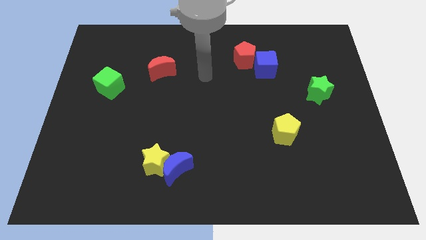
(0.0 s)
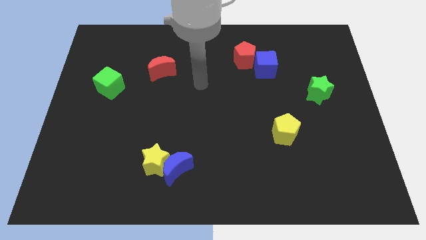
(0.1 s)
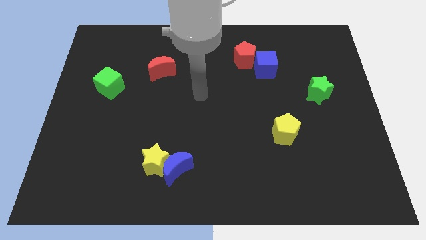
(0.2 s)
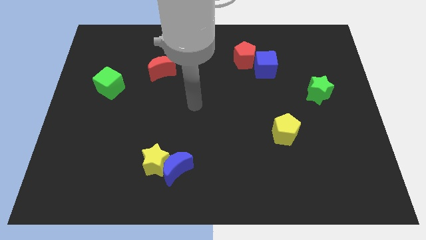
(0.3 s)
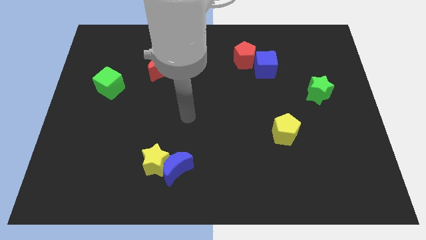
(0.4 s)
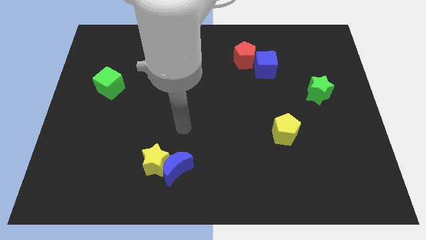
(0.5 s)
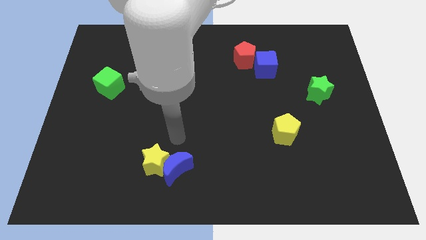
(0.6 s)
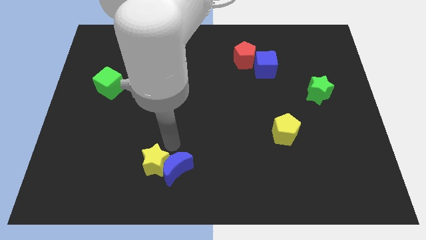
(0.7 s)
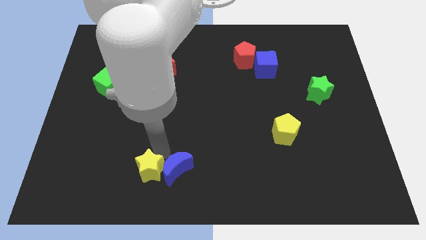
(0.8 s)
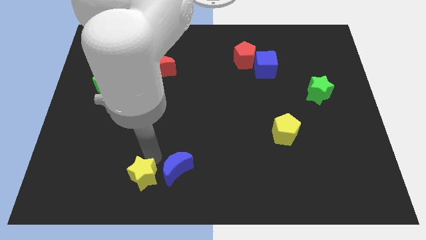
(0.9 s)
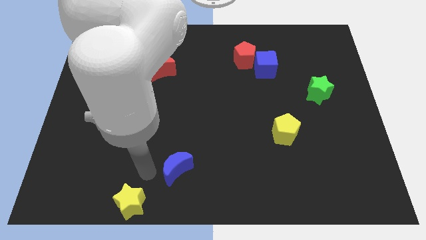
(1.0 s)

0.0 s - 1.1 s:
move the blue moon away from the yellow star

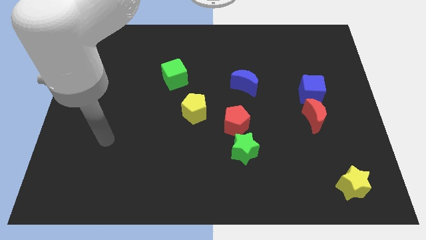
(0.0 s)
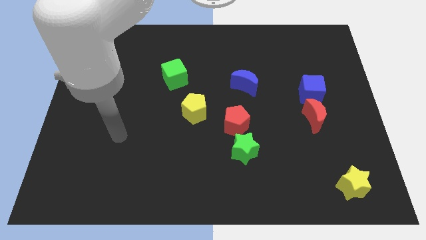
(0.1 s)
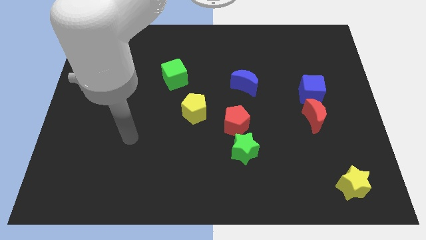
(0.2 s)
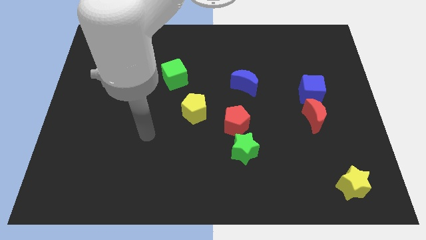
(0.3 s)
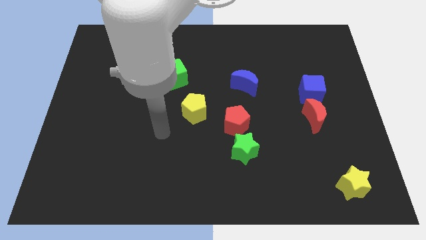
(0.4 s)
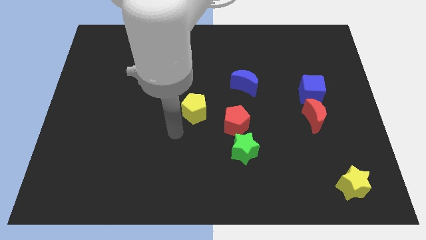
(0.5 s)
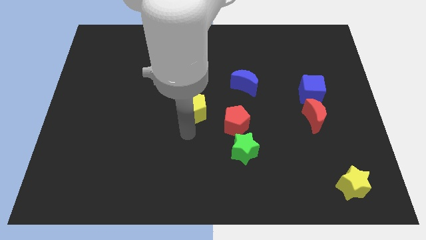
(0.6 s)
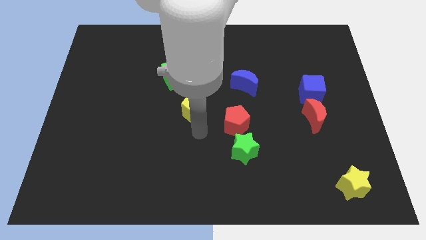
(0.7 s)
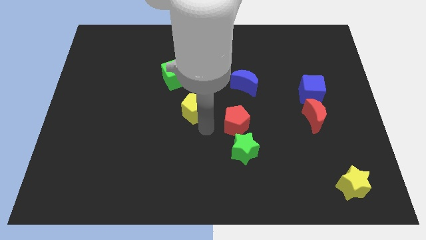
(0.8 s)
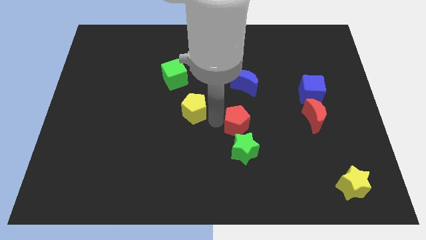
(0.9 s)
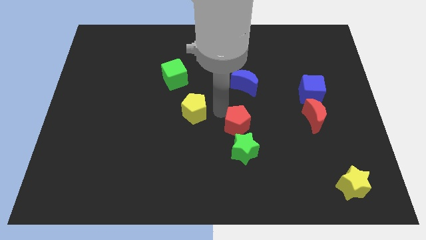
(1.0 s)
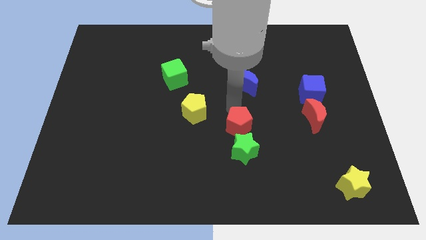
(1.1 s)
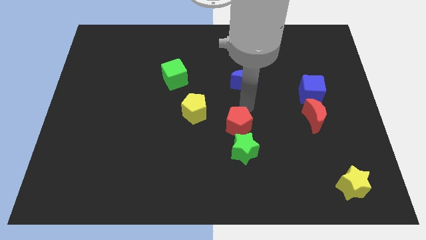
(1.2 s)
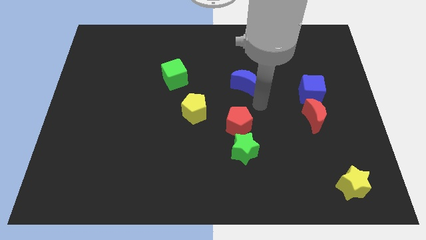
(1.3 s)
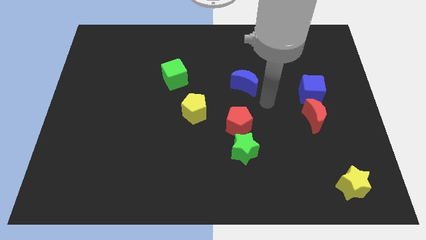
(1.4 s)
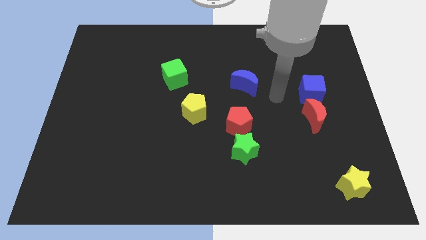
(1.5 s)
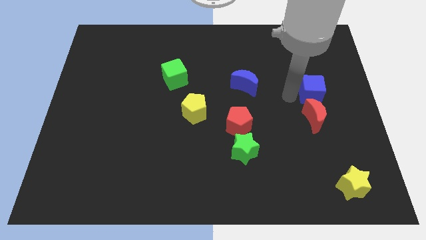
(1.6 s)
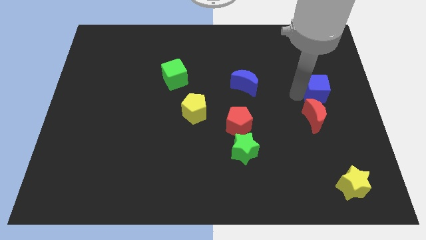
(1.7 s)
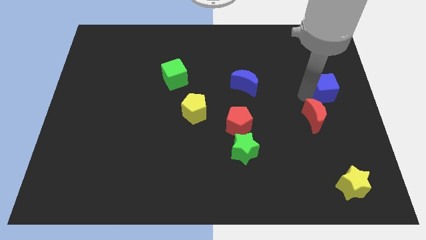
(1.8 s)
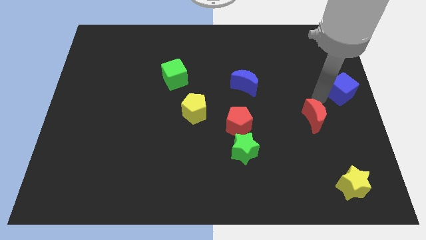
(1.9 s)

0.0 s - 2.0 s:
separate the red moon from the blue cube

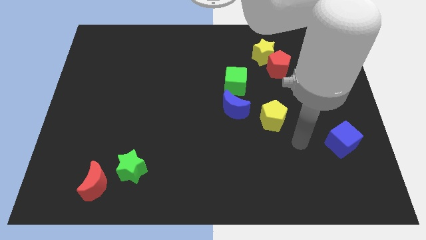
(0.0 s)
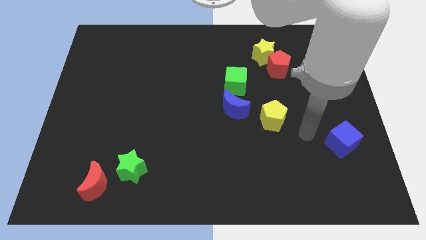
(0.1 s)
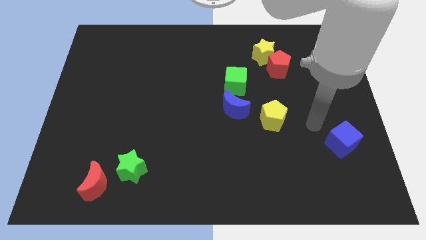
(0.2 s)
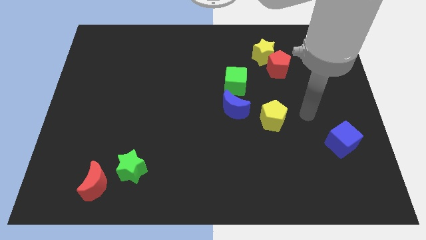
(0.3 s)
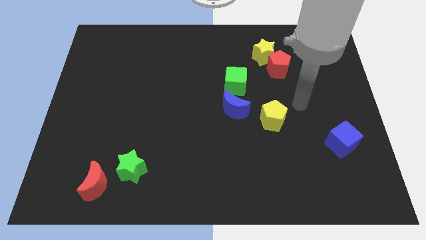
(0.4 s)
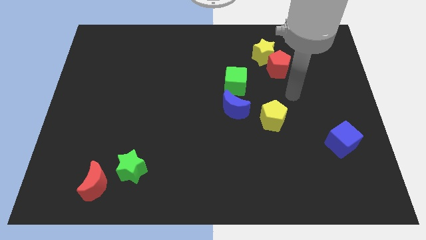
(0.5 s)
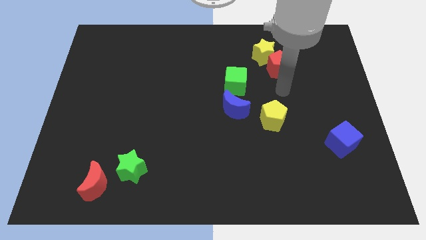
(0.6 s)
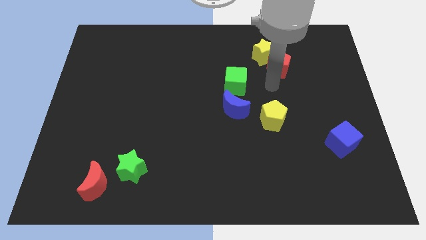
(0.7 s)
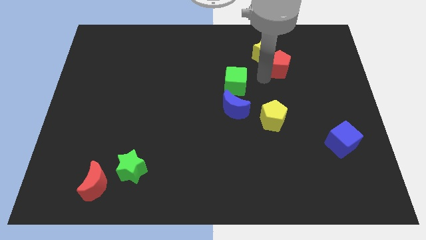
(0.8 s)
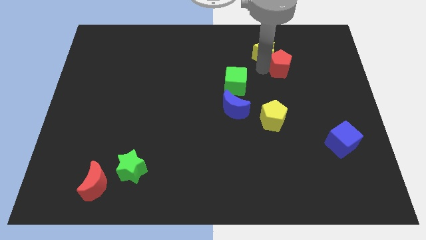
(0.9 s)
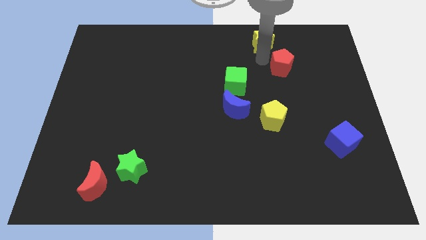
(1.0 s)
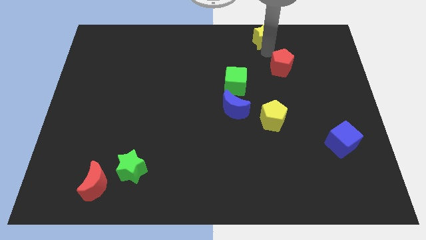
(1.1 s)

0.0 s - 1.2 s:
move the red pentagon away from the yellow star

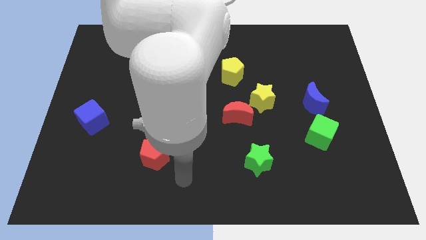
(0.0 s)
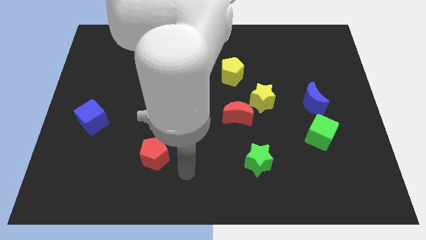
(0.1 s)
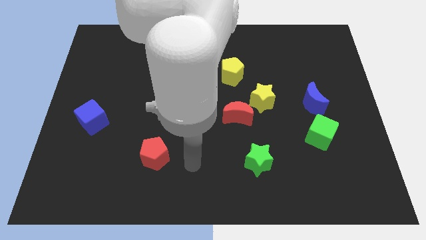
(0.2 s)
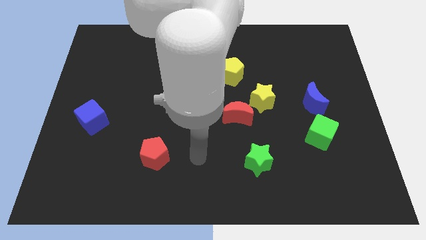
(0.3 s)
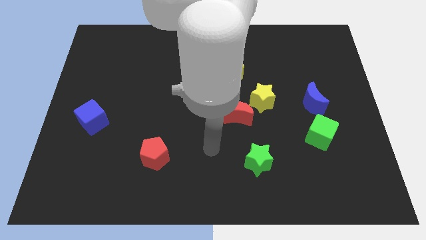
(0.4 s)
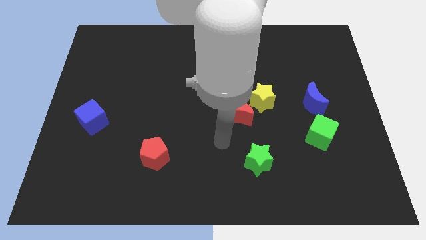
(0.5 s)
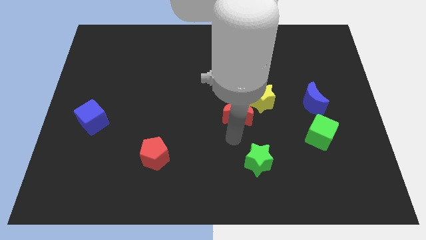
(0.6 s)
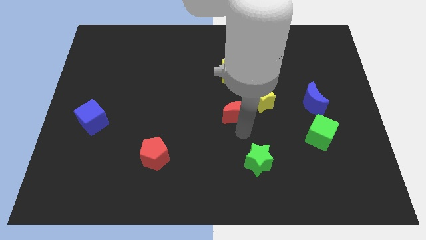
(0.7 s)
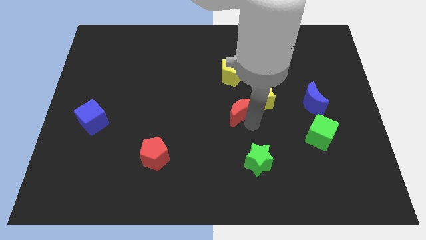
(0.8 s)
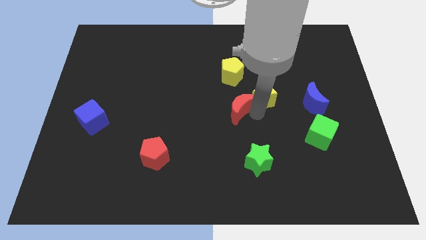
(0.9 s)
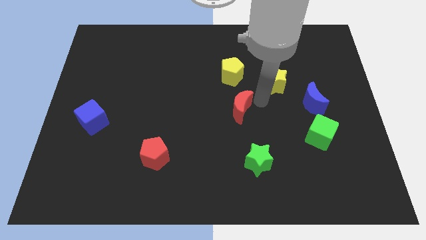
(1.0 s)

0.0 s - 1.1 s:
separate the red moon from the yellow star

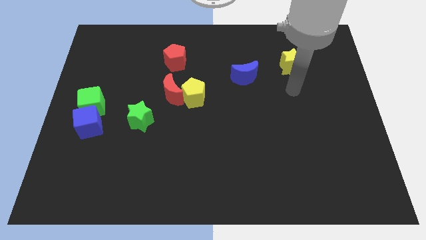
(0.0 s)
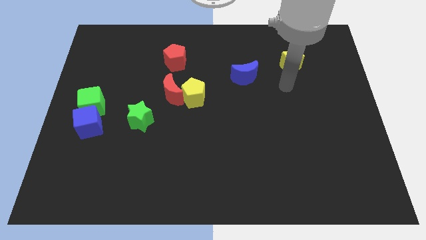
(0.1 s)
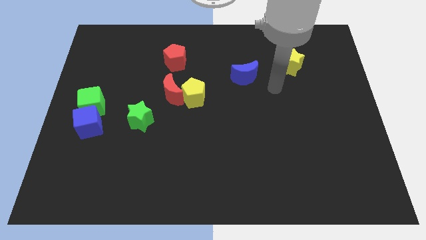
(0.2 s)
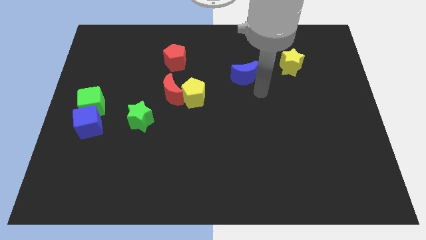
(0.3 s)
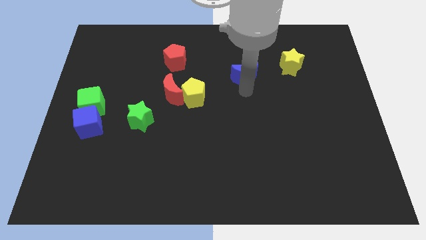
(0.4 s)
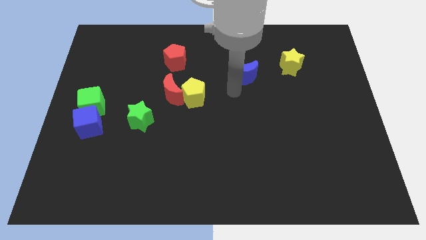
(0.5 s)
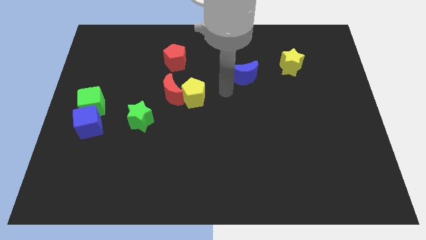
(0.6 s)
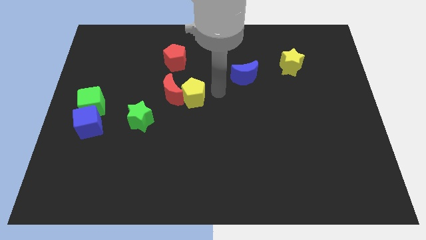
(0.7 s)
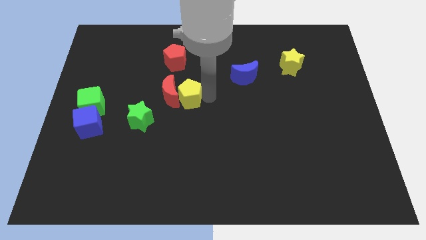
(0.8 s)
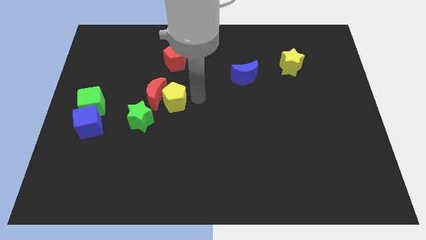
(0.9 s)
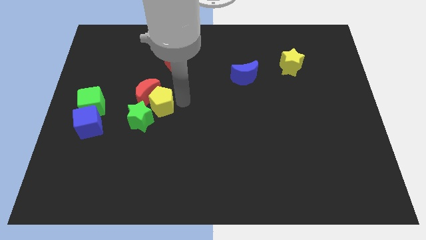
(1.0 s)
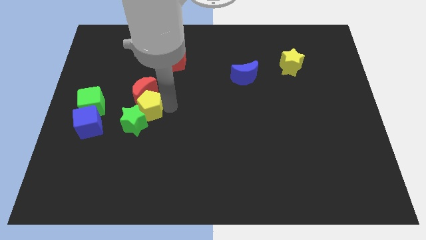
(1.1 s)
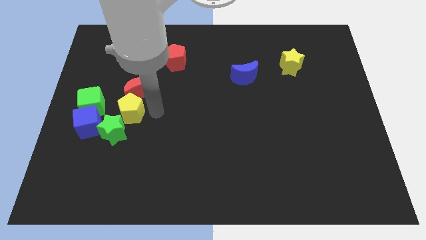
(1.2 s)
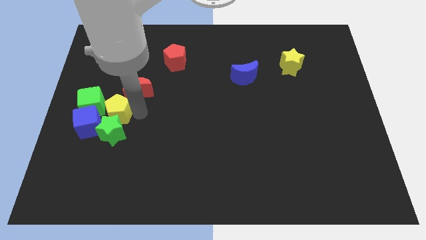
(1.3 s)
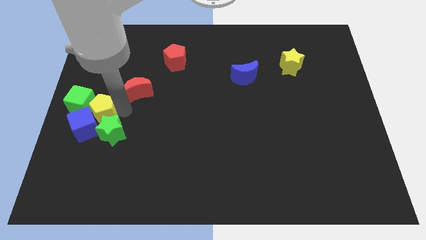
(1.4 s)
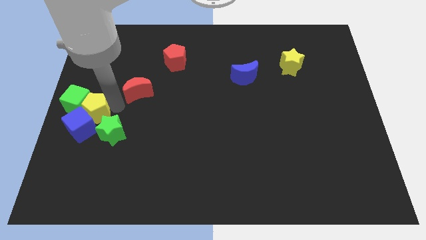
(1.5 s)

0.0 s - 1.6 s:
pull the red moon apart from the yellow pentagon

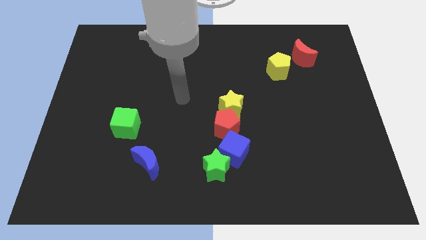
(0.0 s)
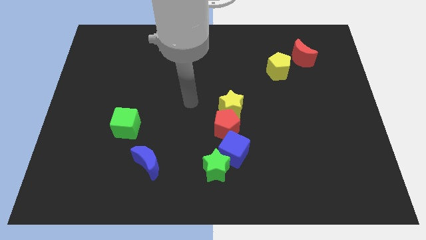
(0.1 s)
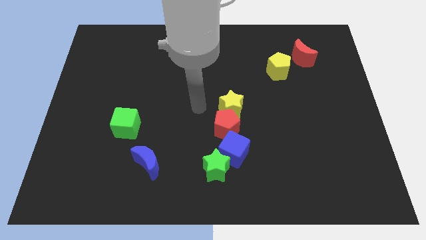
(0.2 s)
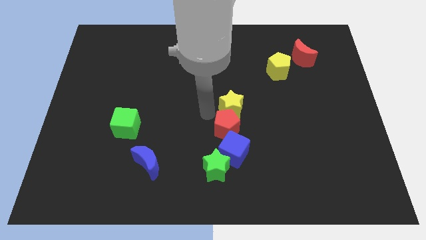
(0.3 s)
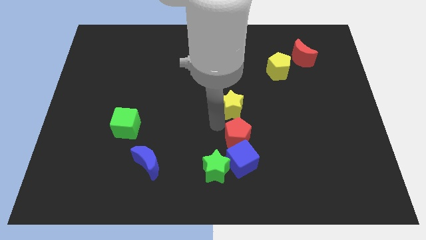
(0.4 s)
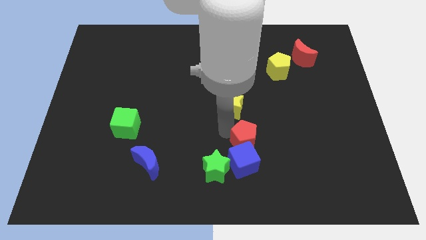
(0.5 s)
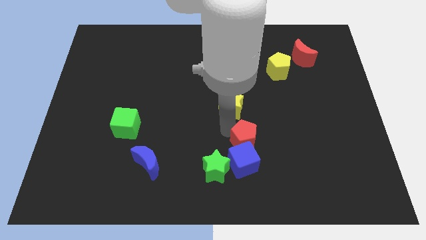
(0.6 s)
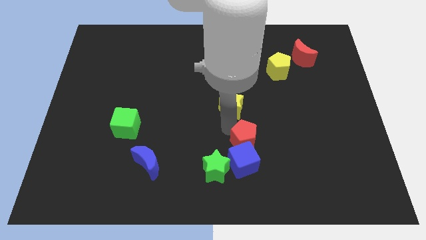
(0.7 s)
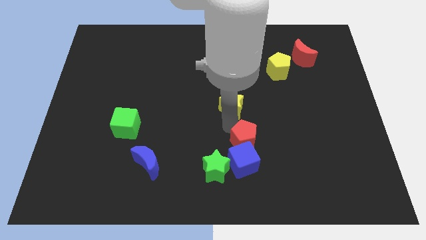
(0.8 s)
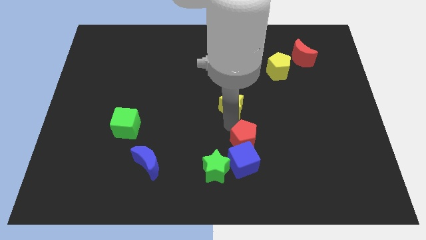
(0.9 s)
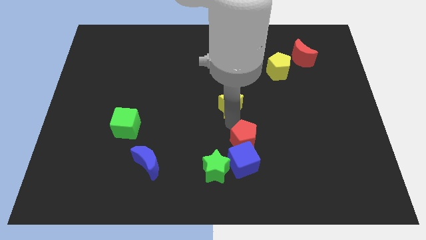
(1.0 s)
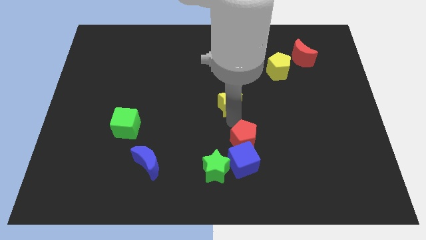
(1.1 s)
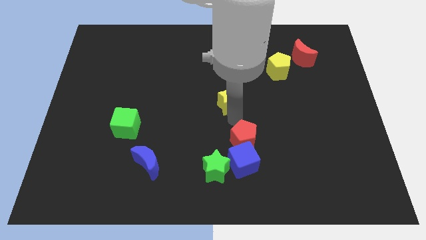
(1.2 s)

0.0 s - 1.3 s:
separate the yellow star from the red pentagon

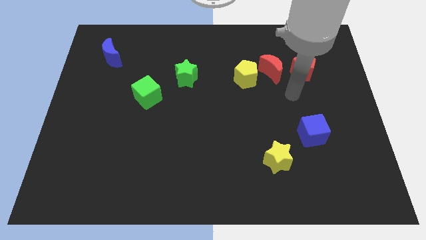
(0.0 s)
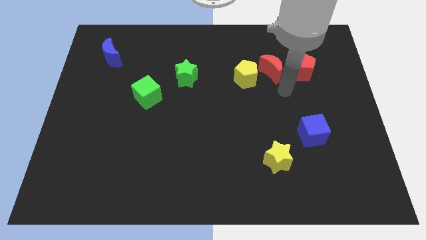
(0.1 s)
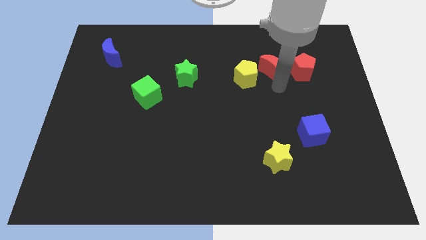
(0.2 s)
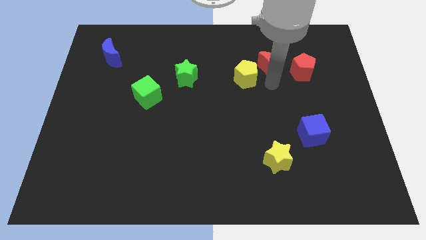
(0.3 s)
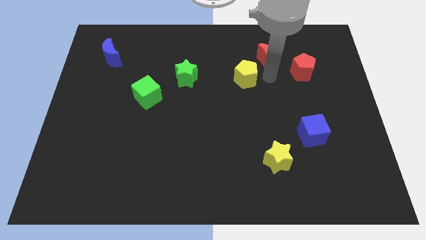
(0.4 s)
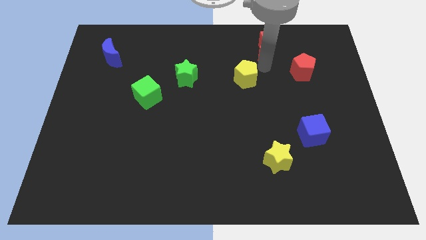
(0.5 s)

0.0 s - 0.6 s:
move the yellow pentagon away from the red moon

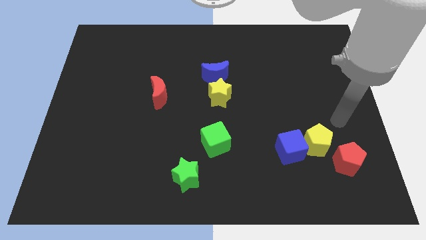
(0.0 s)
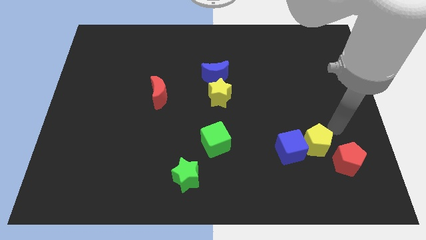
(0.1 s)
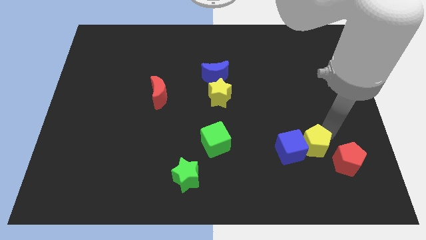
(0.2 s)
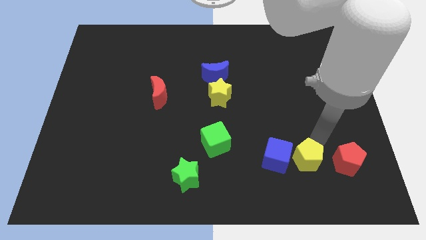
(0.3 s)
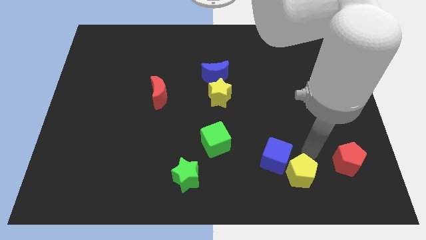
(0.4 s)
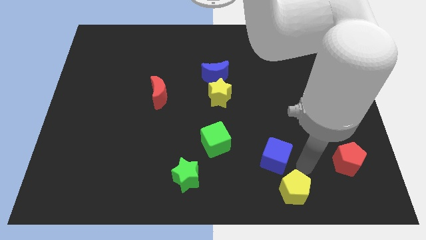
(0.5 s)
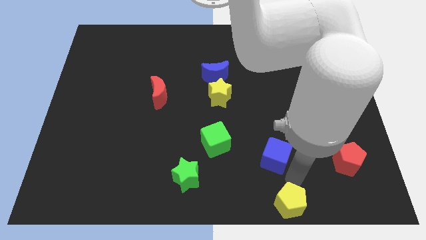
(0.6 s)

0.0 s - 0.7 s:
pull the blue cube apart from the yellow pentagon
